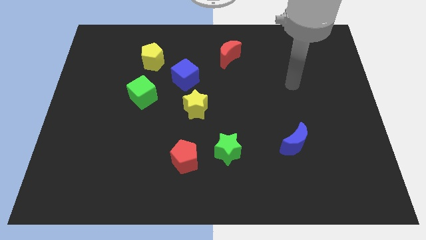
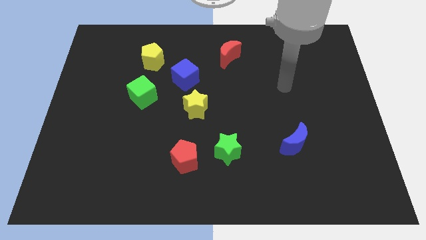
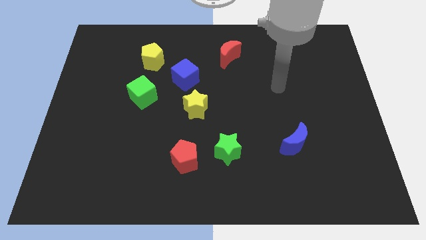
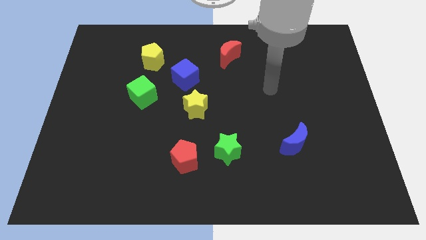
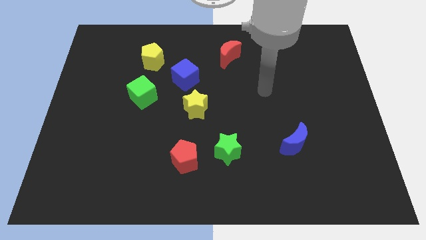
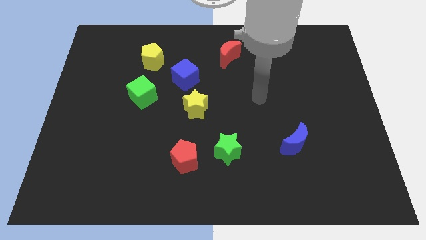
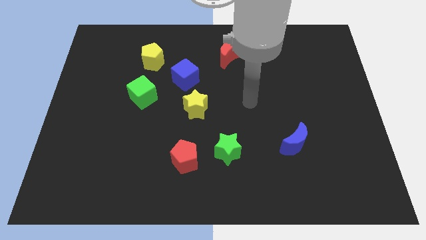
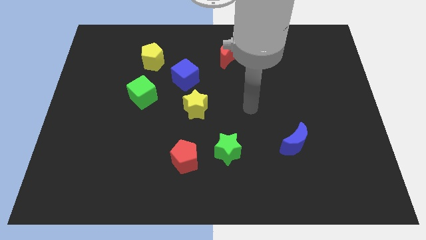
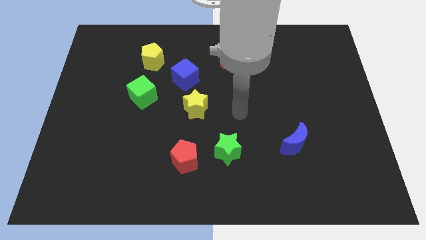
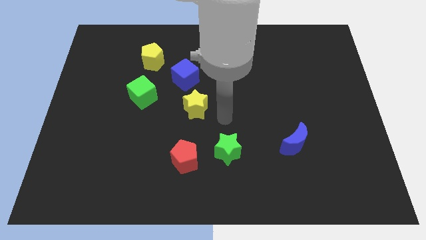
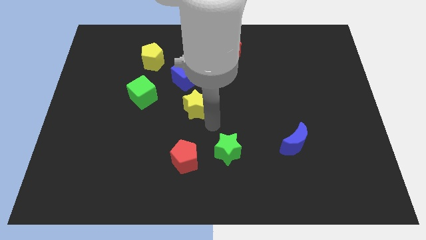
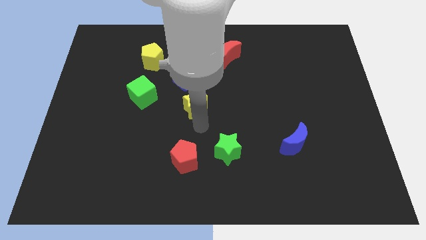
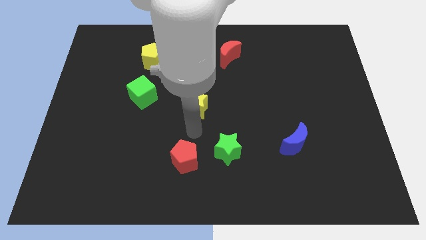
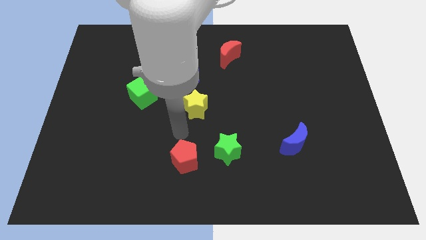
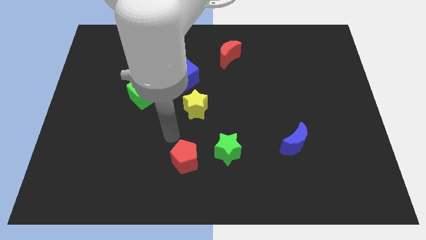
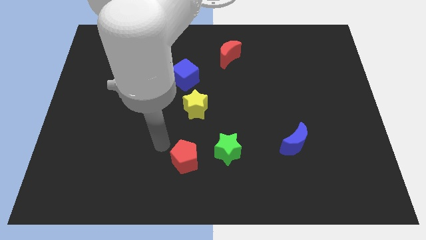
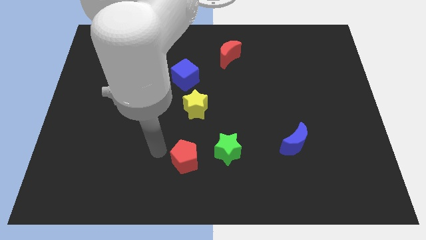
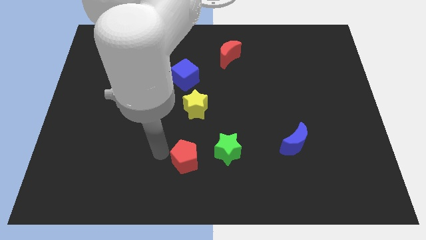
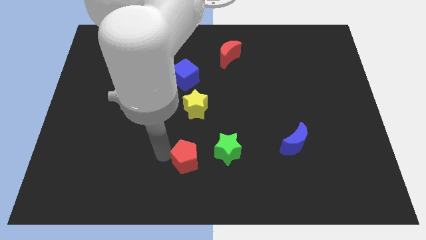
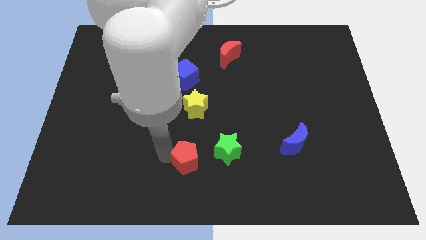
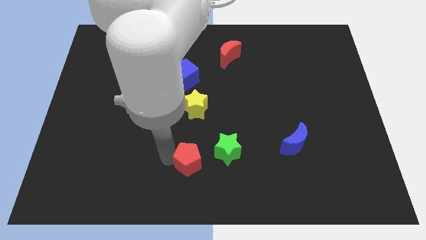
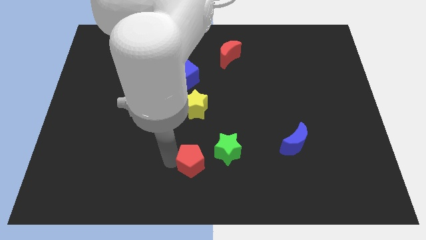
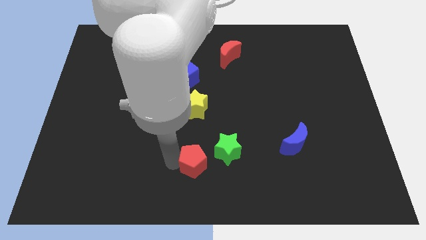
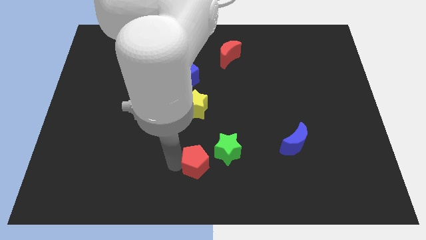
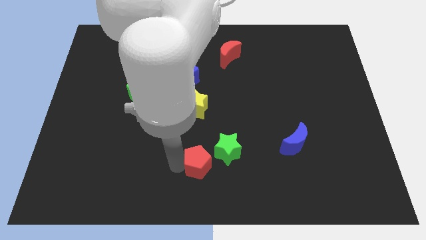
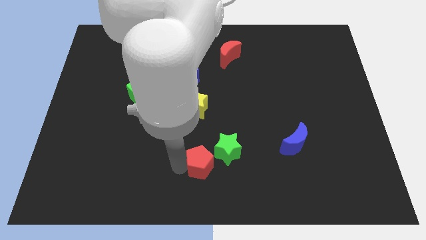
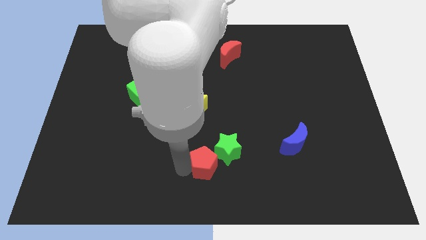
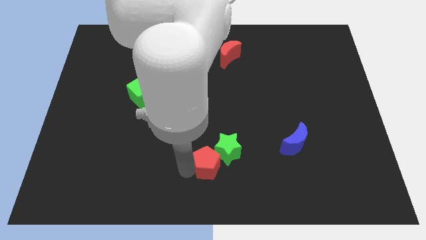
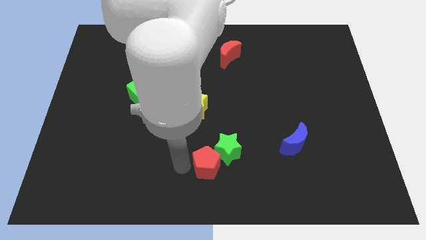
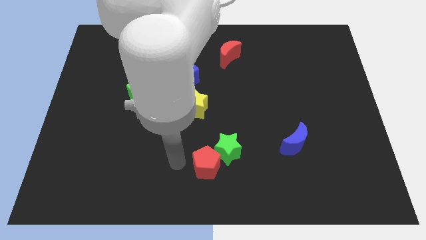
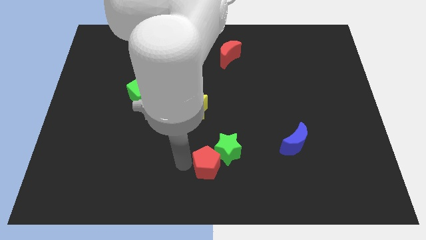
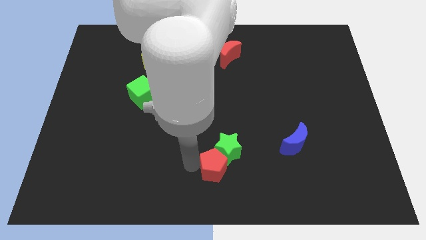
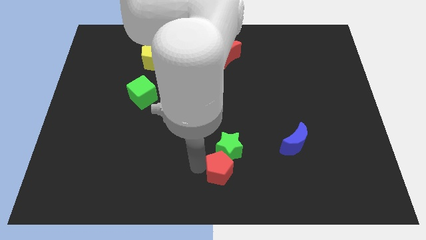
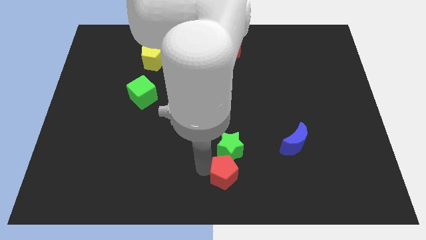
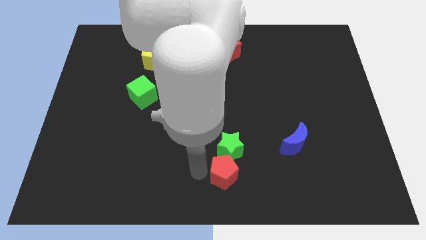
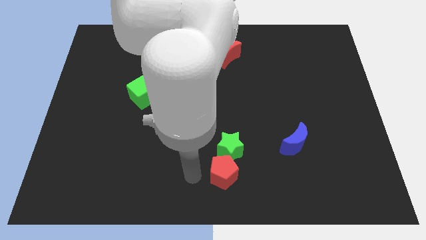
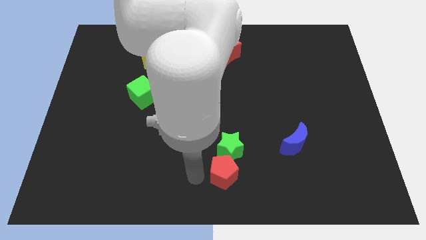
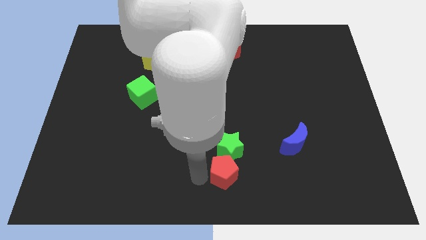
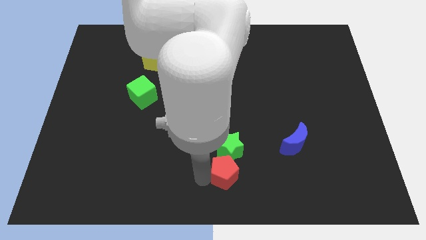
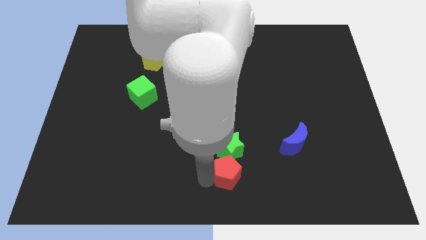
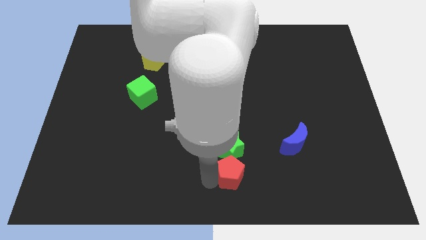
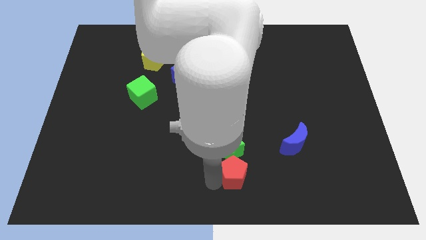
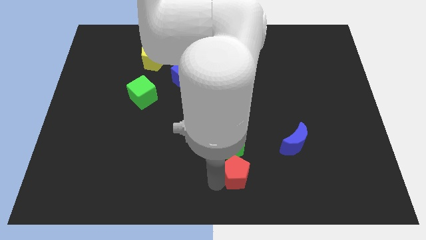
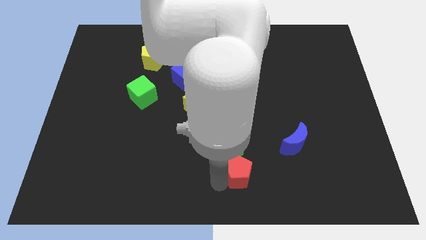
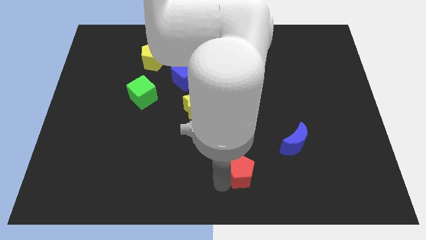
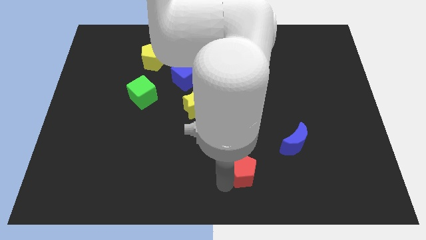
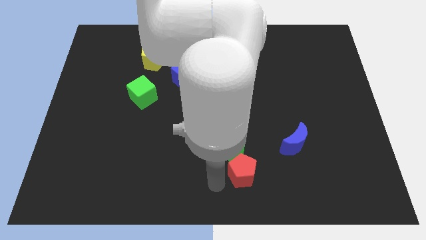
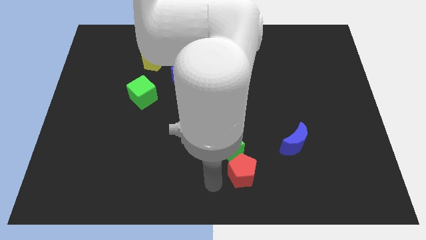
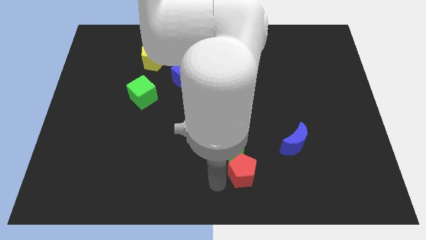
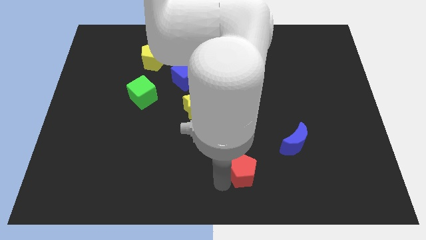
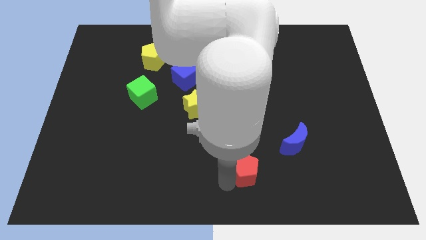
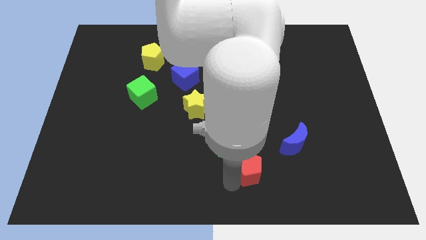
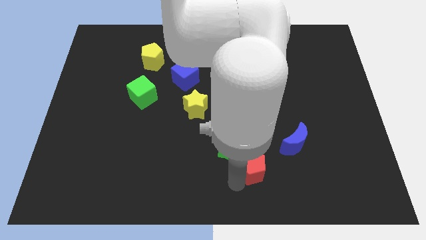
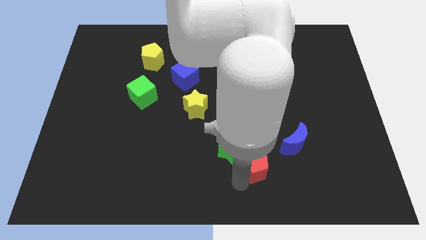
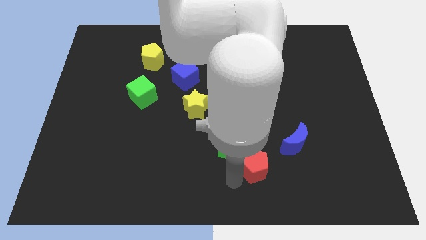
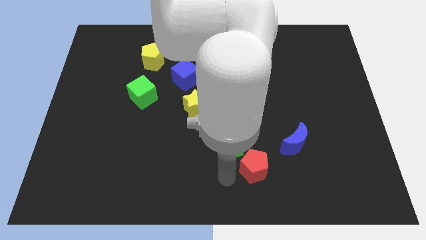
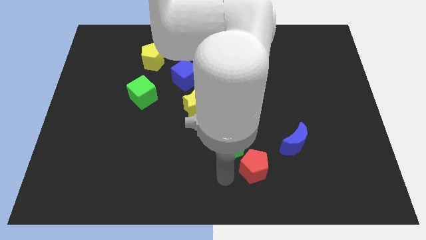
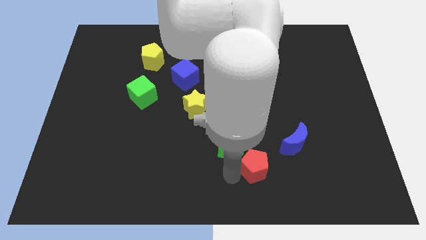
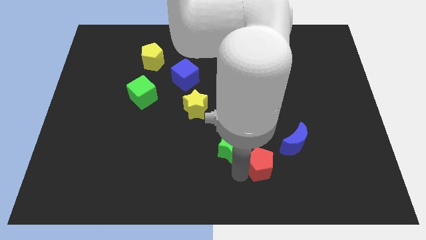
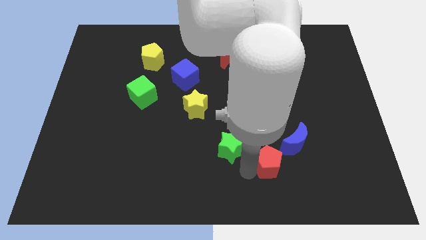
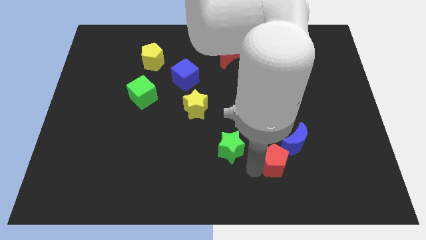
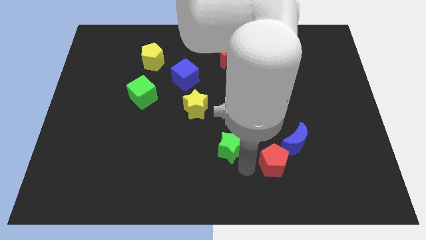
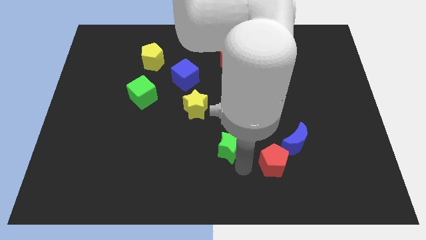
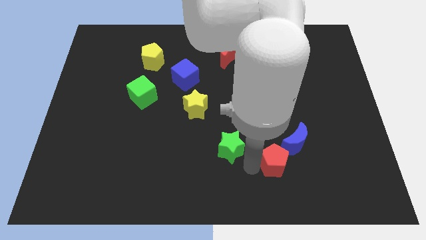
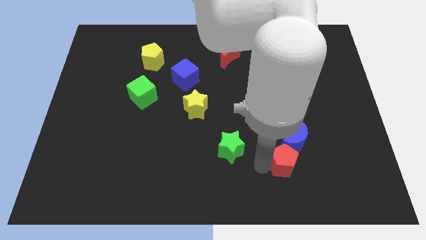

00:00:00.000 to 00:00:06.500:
move the red pentagon right

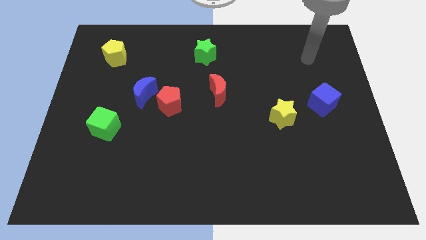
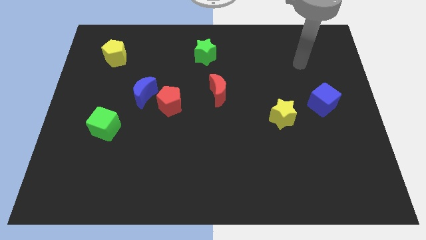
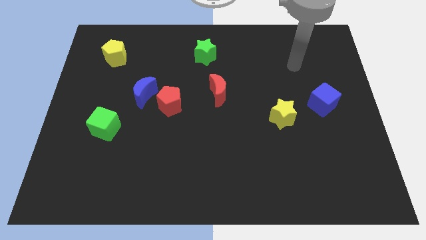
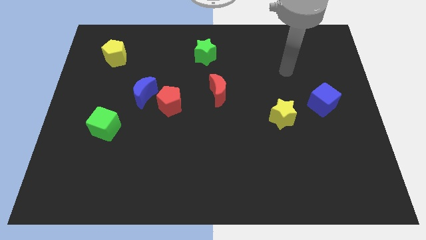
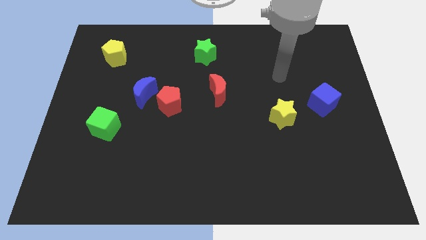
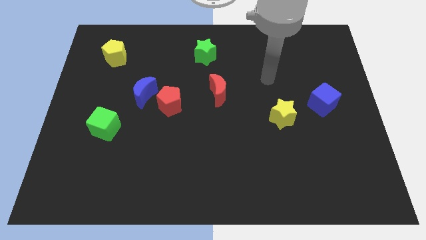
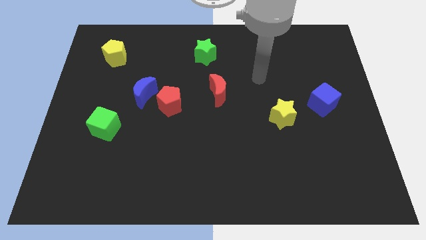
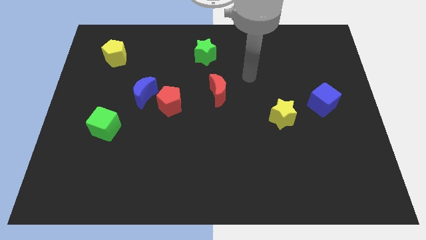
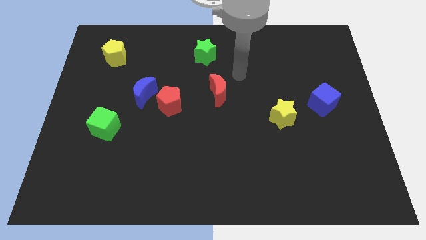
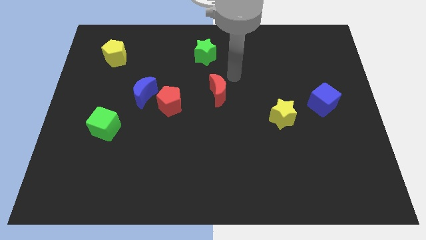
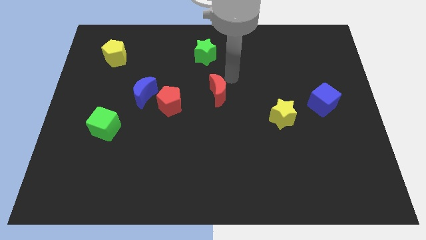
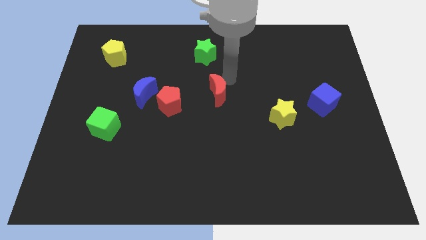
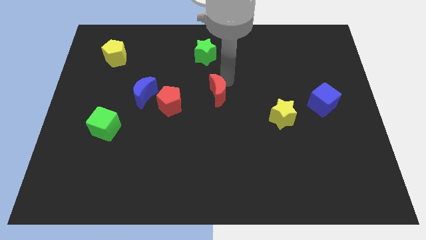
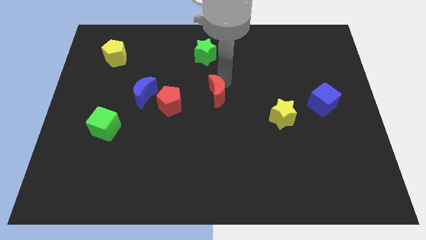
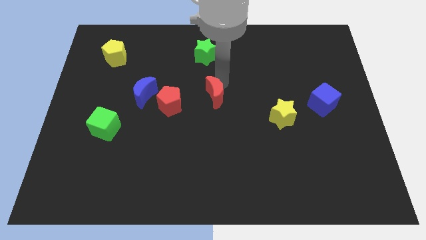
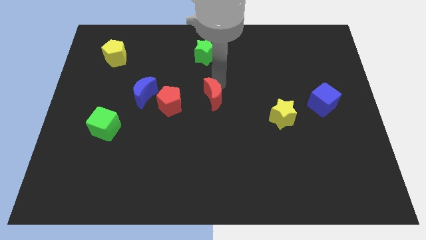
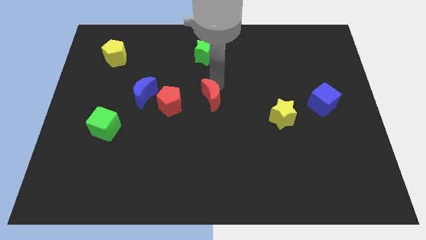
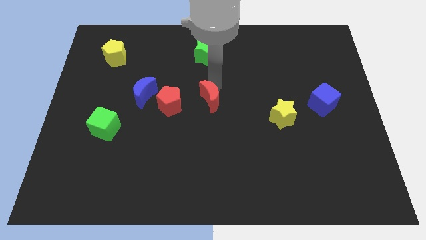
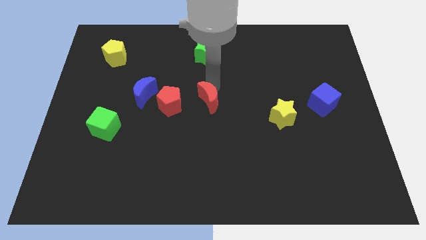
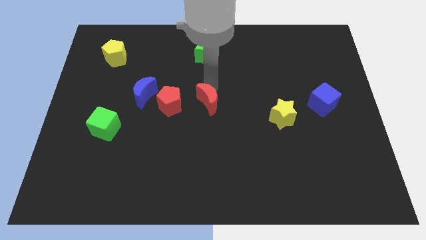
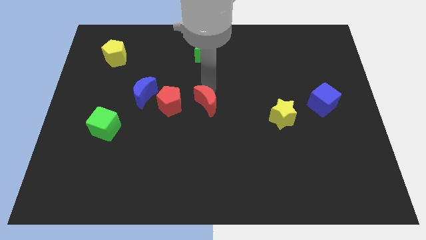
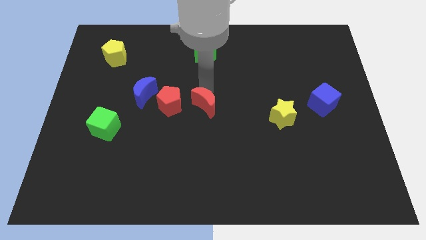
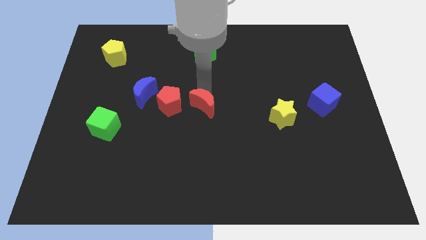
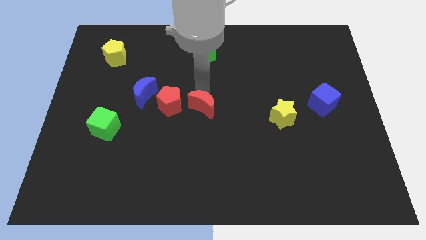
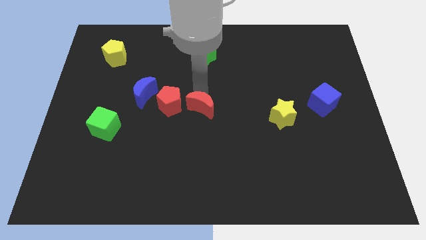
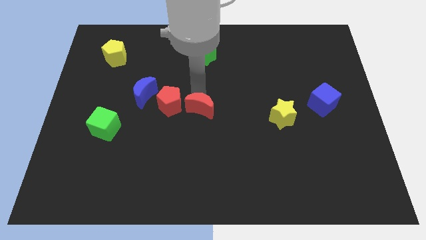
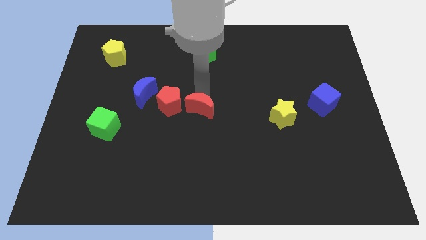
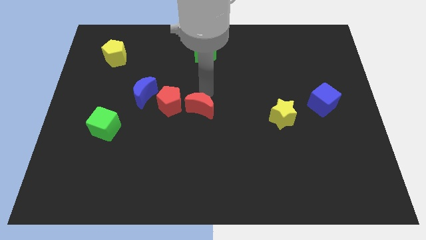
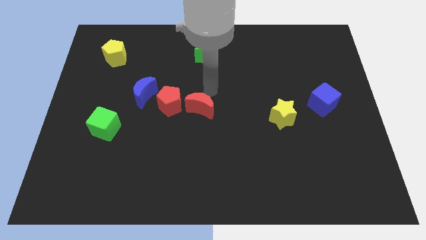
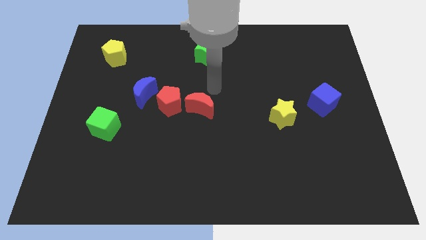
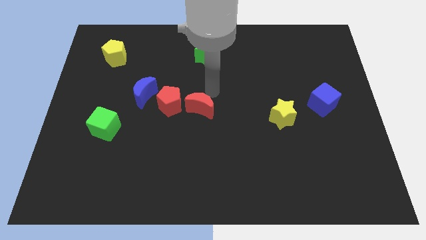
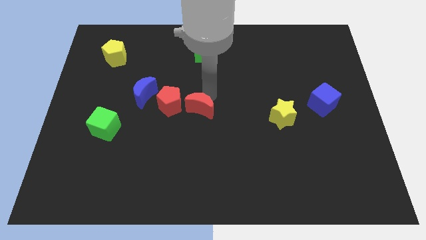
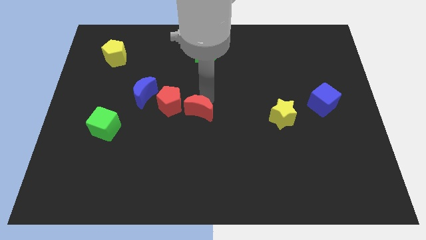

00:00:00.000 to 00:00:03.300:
slide the red moon a bit down and left diagonally
